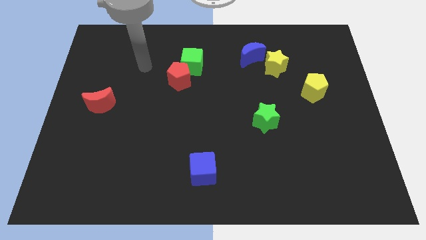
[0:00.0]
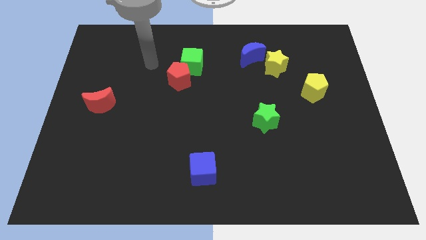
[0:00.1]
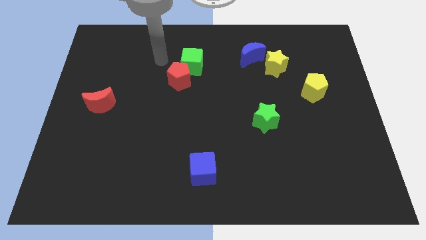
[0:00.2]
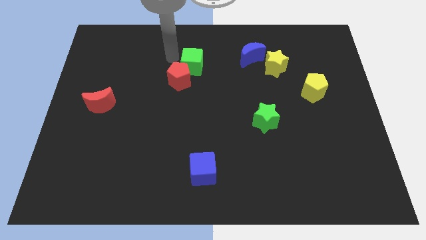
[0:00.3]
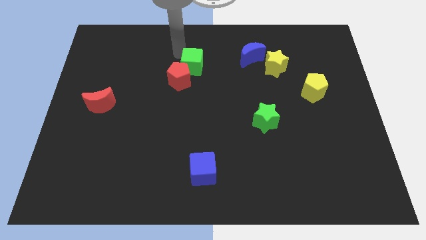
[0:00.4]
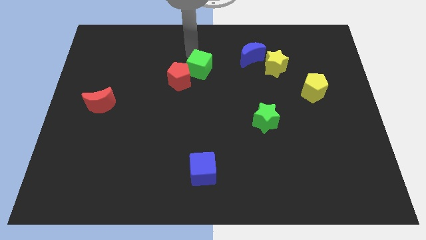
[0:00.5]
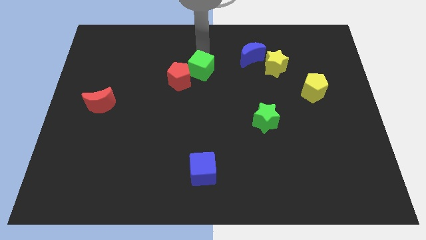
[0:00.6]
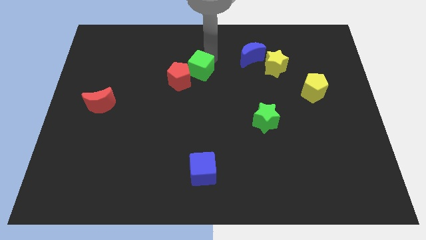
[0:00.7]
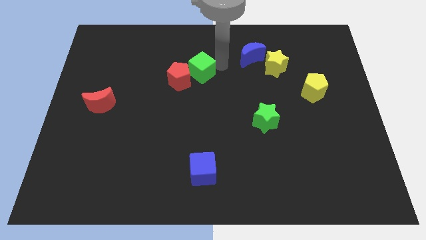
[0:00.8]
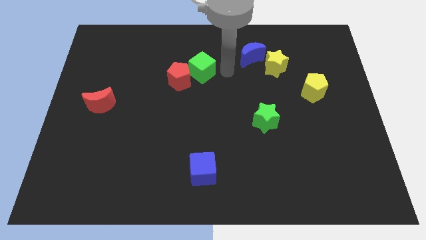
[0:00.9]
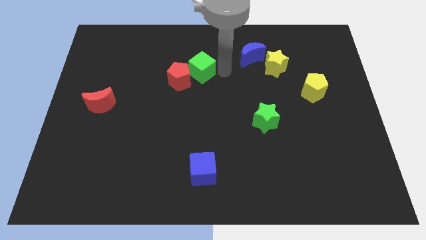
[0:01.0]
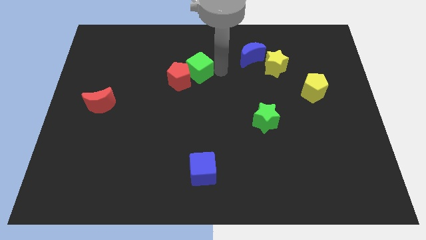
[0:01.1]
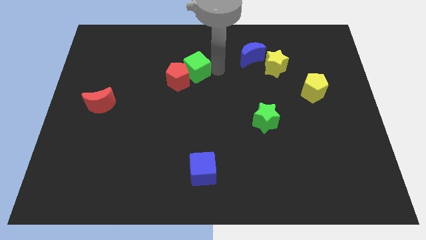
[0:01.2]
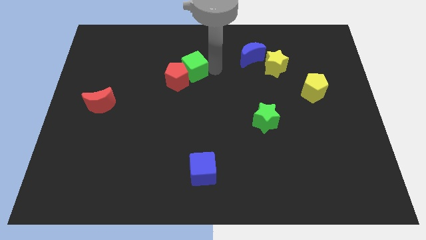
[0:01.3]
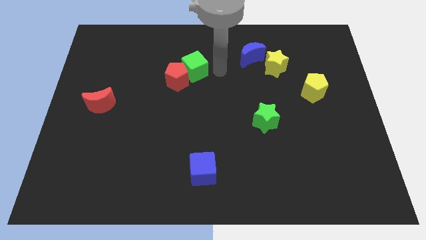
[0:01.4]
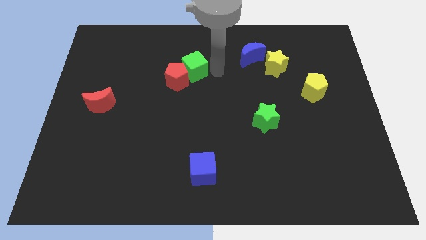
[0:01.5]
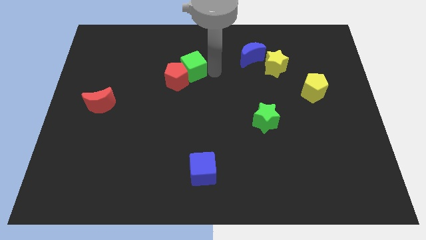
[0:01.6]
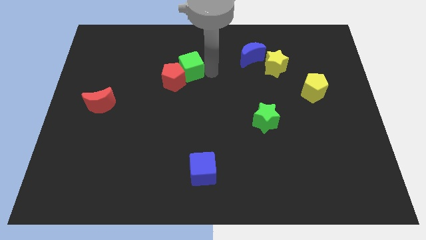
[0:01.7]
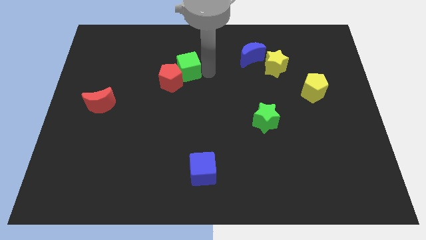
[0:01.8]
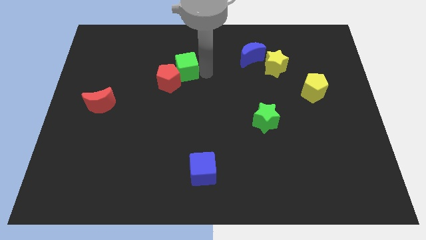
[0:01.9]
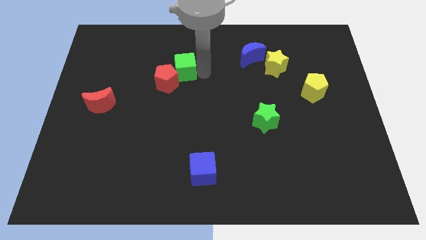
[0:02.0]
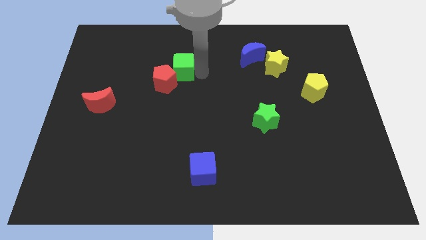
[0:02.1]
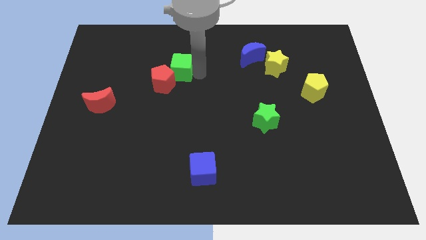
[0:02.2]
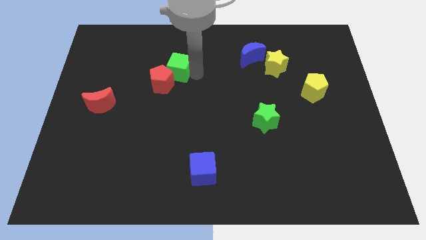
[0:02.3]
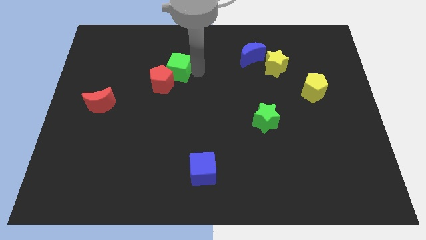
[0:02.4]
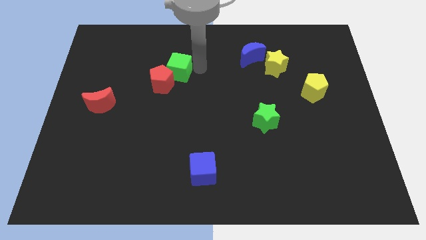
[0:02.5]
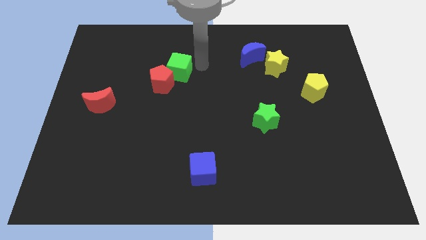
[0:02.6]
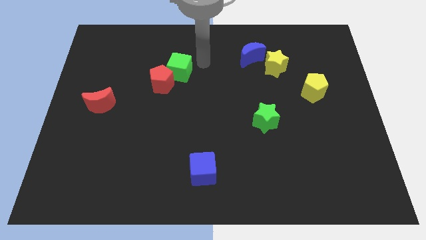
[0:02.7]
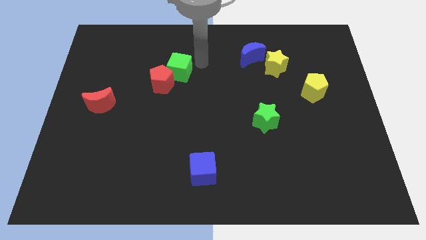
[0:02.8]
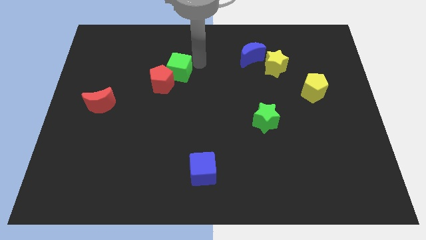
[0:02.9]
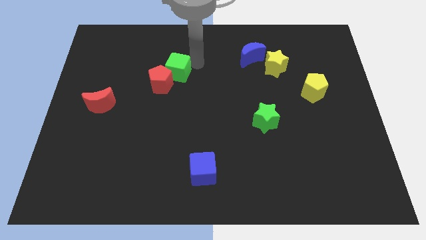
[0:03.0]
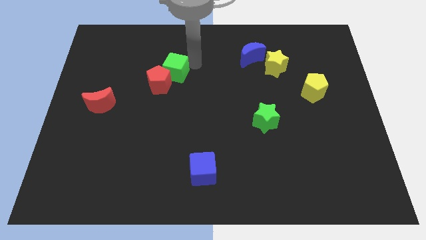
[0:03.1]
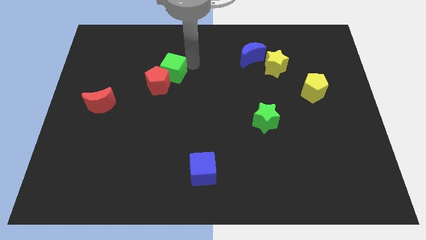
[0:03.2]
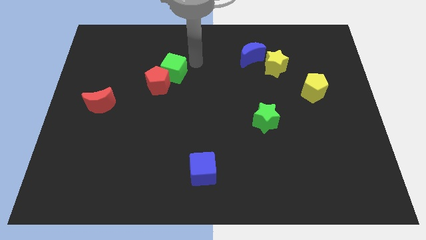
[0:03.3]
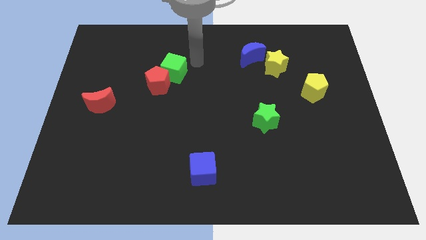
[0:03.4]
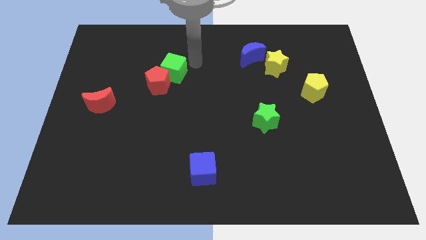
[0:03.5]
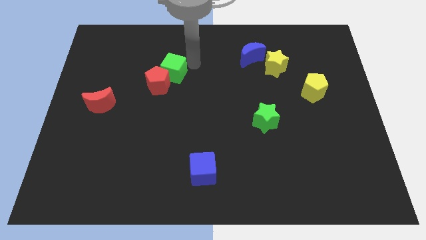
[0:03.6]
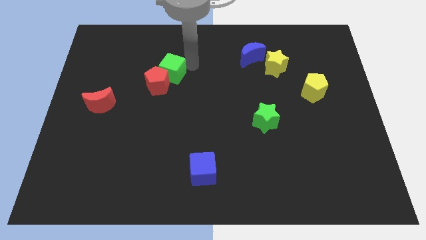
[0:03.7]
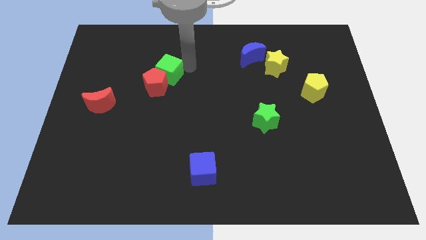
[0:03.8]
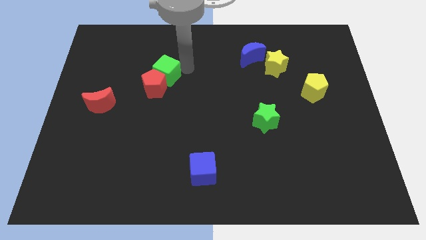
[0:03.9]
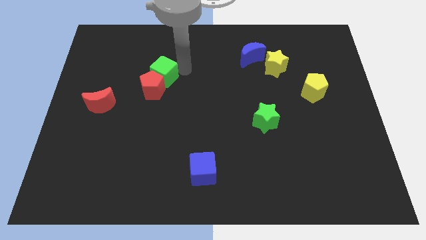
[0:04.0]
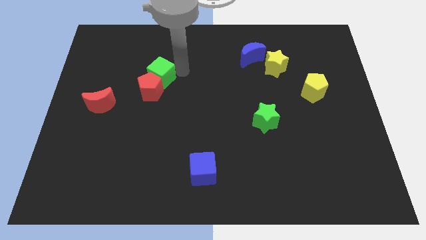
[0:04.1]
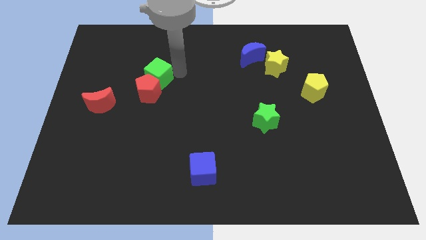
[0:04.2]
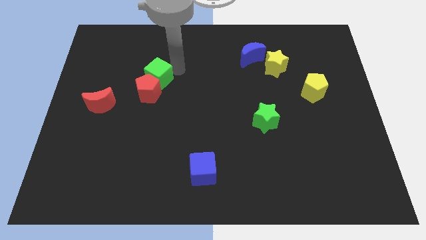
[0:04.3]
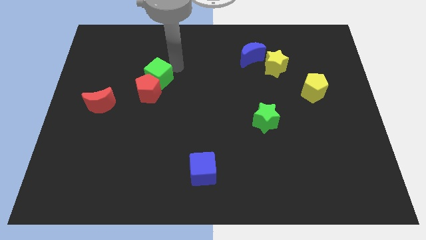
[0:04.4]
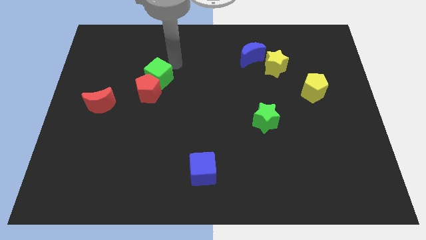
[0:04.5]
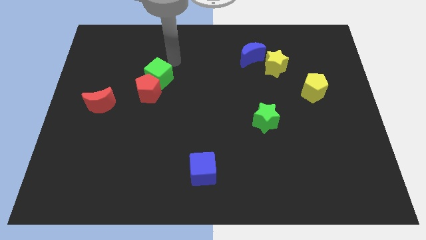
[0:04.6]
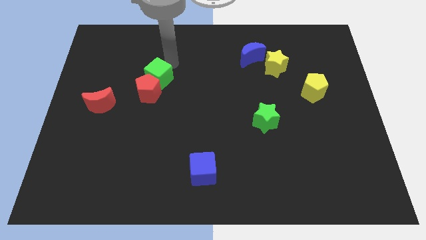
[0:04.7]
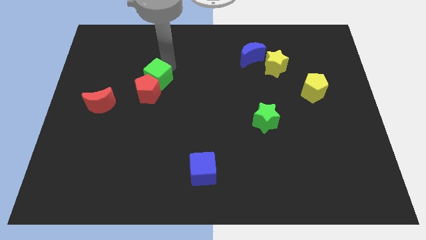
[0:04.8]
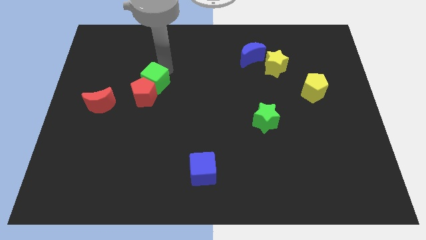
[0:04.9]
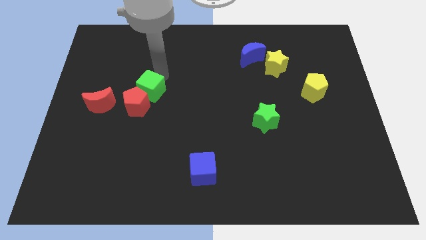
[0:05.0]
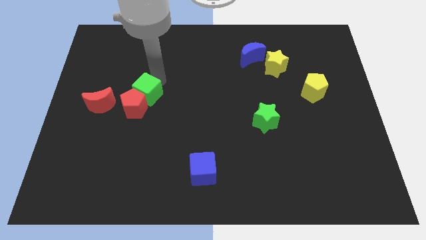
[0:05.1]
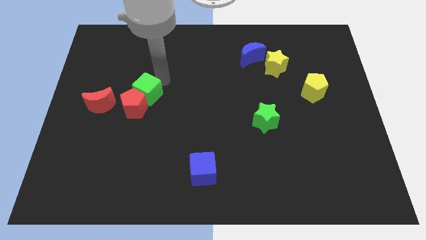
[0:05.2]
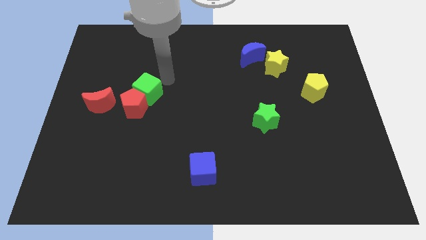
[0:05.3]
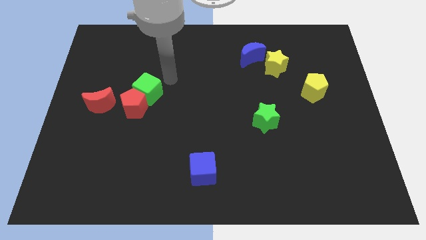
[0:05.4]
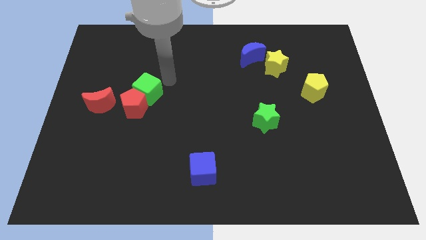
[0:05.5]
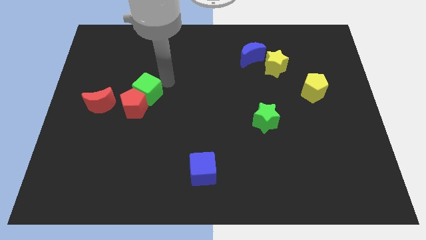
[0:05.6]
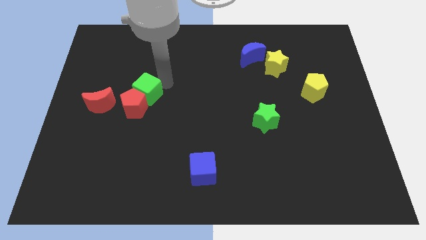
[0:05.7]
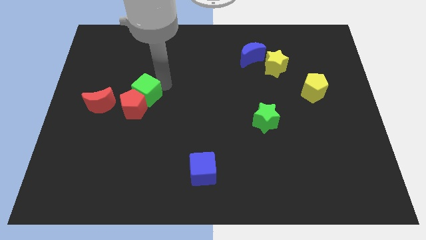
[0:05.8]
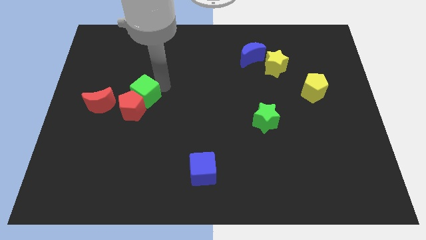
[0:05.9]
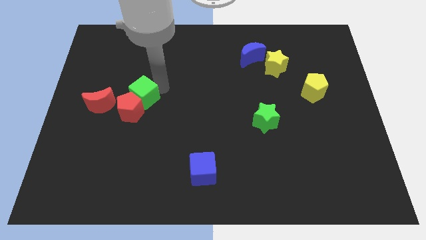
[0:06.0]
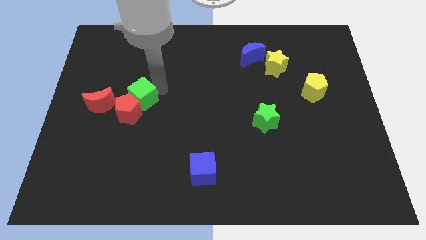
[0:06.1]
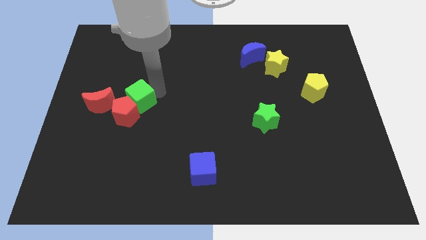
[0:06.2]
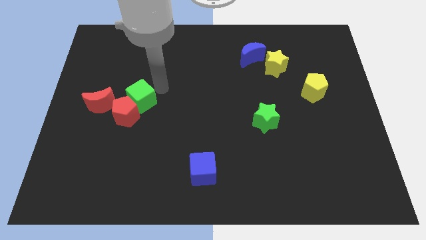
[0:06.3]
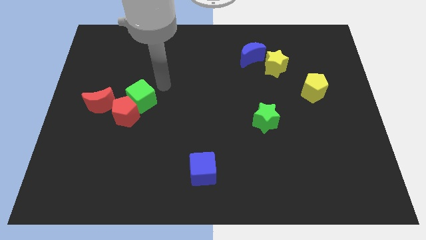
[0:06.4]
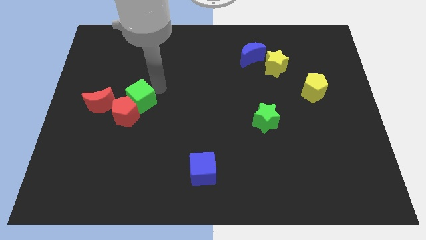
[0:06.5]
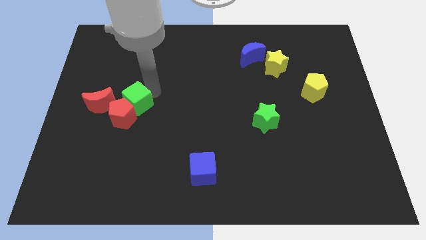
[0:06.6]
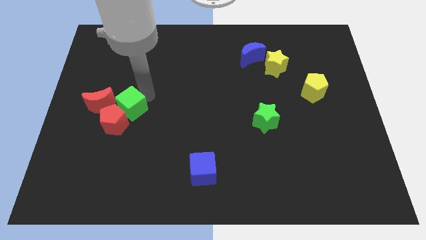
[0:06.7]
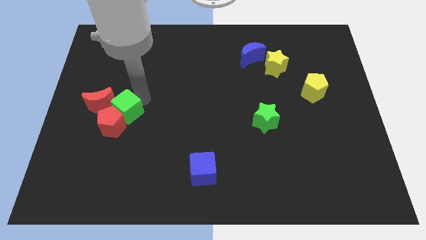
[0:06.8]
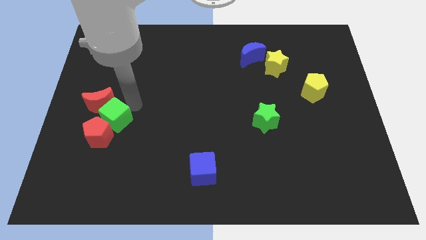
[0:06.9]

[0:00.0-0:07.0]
push the green cube to the bottom of the red moon

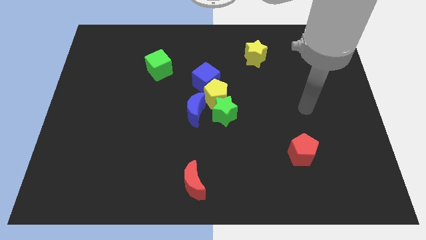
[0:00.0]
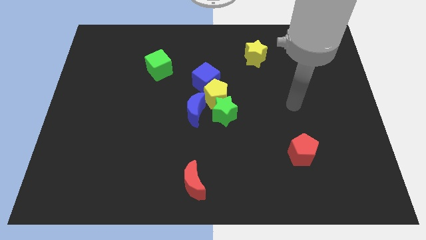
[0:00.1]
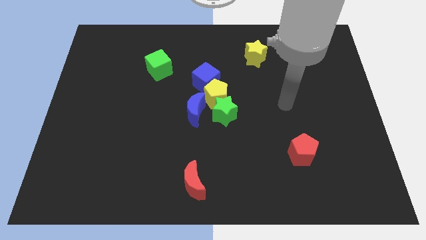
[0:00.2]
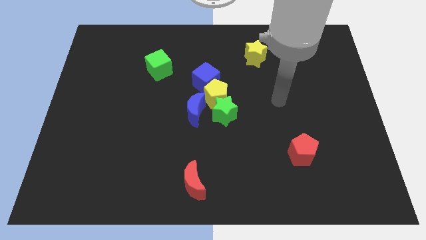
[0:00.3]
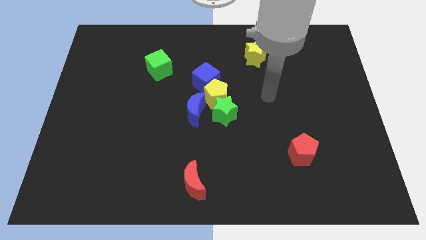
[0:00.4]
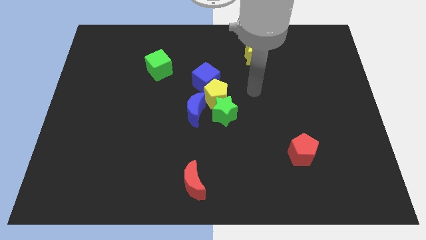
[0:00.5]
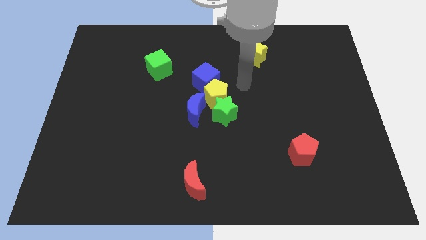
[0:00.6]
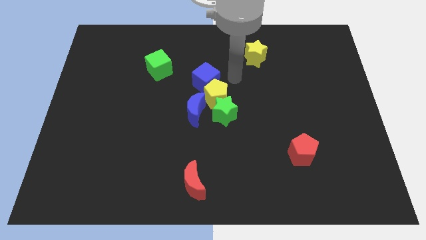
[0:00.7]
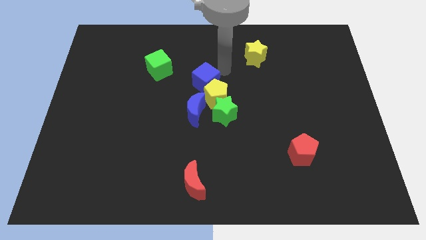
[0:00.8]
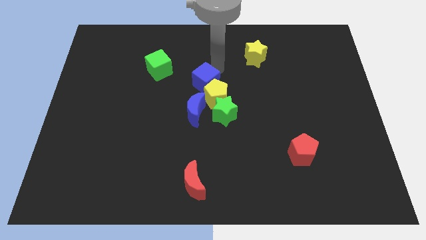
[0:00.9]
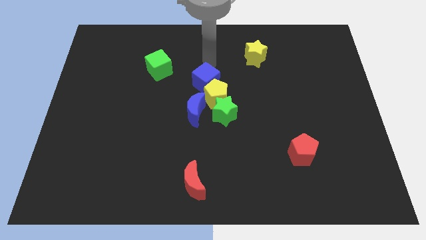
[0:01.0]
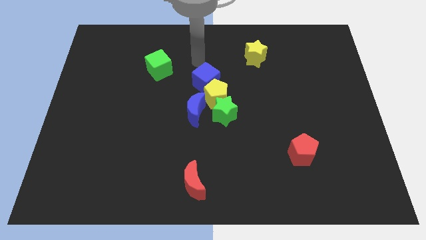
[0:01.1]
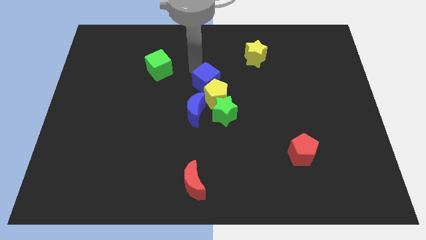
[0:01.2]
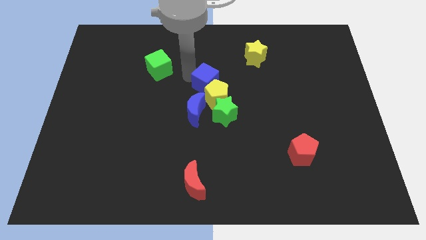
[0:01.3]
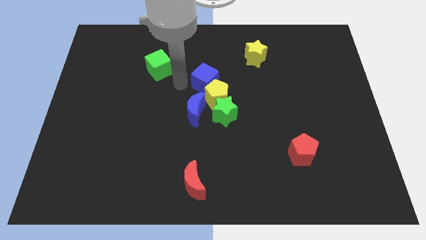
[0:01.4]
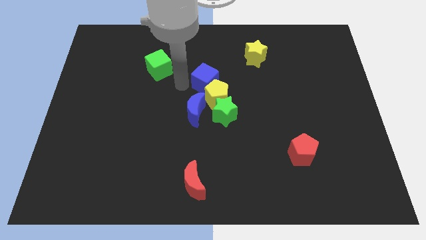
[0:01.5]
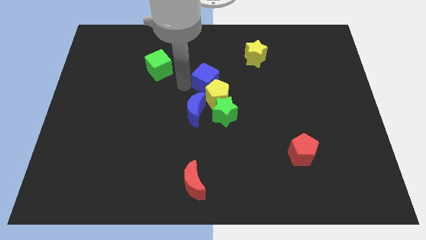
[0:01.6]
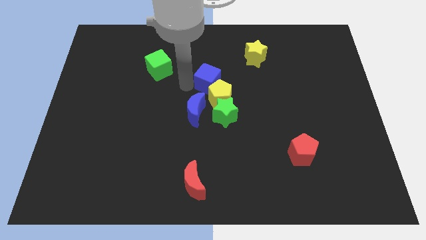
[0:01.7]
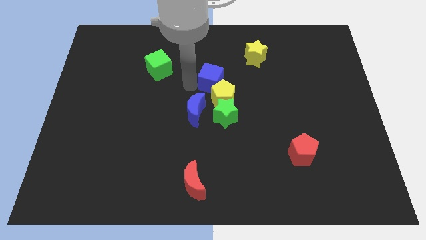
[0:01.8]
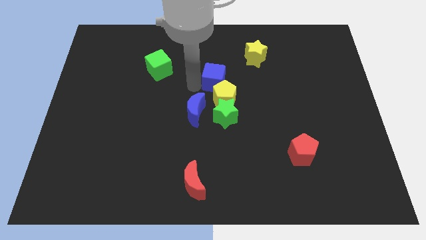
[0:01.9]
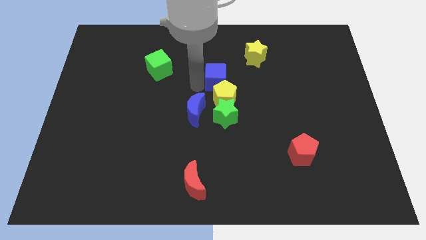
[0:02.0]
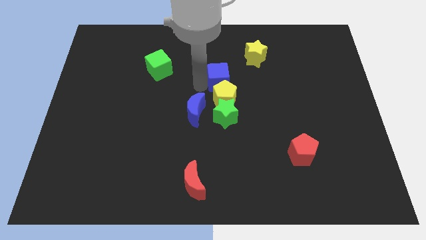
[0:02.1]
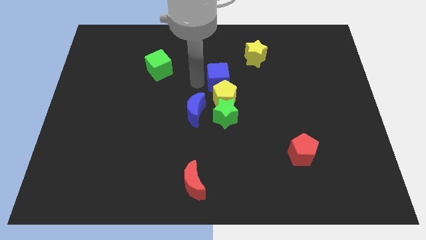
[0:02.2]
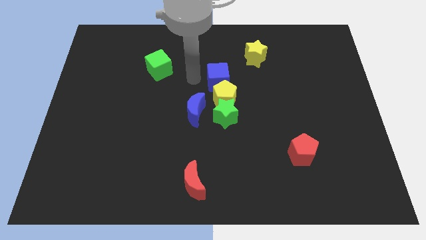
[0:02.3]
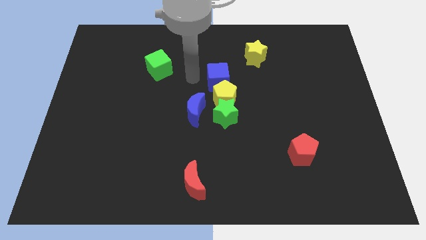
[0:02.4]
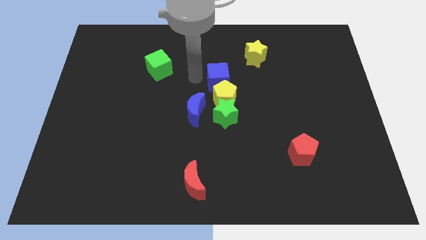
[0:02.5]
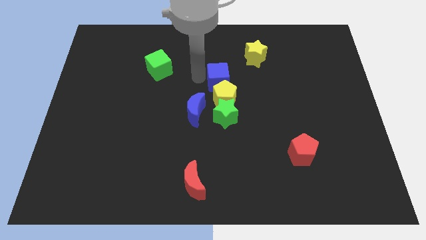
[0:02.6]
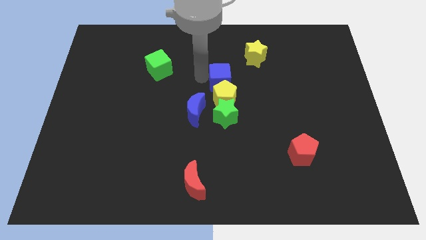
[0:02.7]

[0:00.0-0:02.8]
move the blue cube to the top right side of the yellow pentagon
